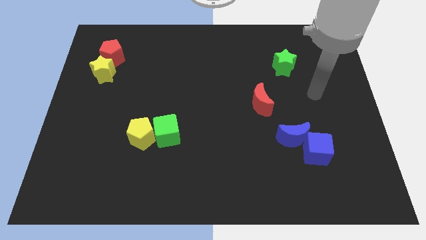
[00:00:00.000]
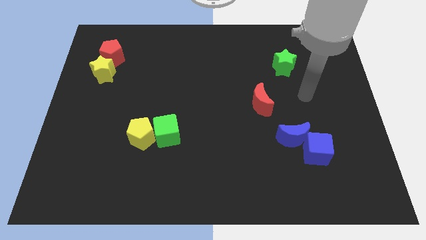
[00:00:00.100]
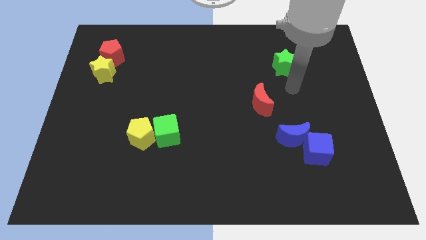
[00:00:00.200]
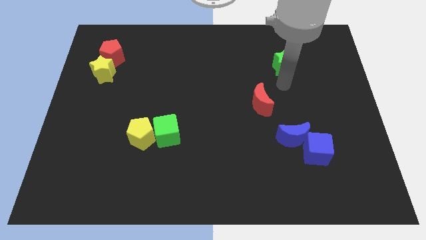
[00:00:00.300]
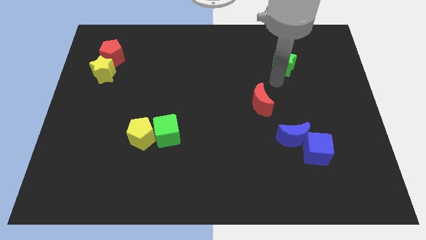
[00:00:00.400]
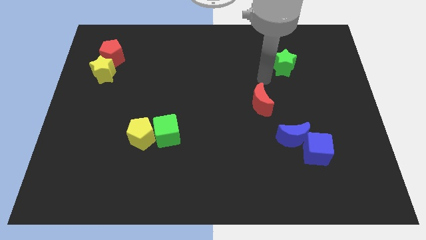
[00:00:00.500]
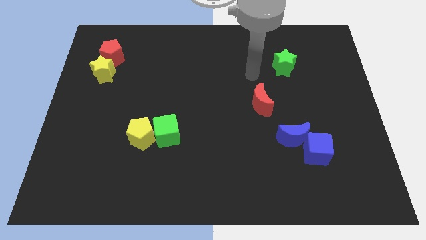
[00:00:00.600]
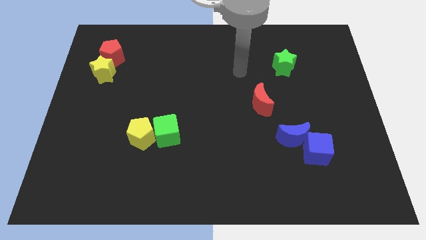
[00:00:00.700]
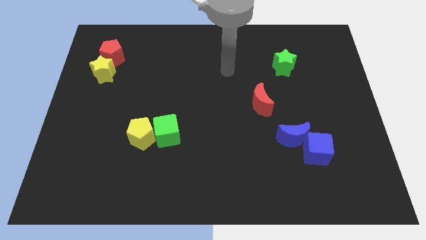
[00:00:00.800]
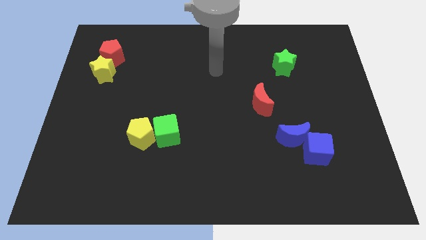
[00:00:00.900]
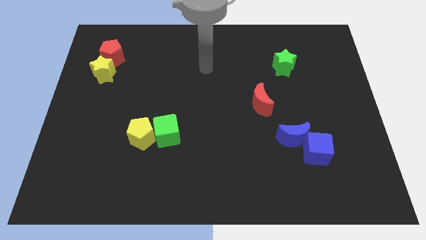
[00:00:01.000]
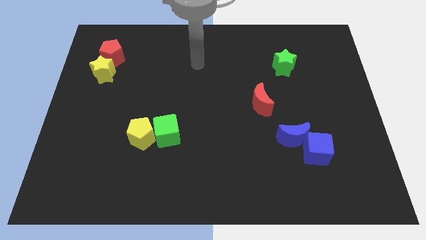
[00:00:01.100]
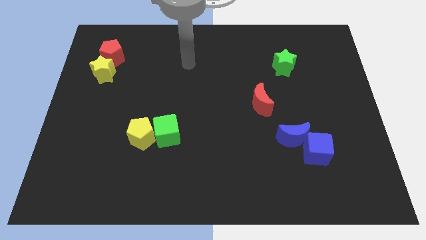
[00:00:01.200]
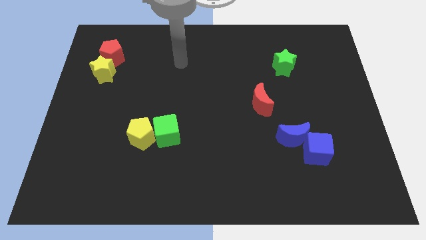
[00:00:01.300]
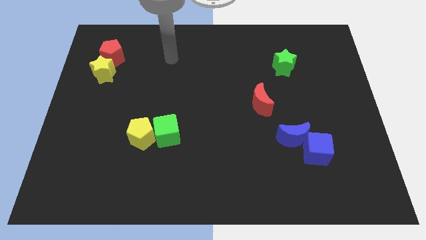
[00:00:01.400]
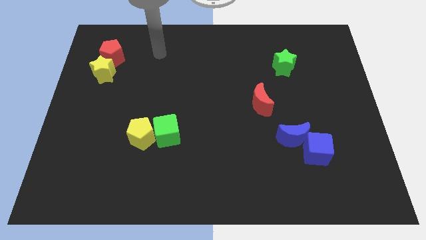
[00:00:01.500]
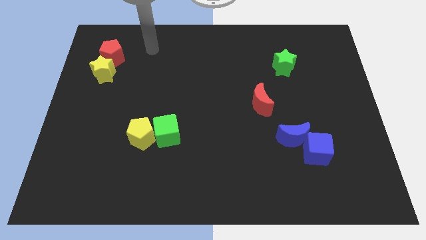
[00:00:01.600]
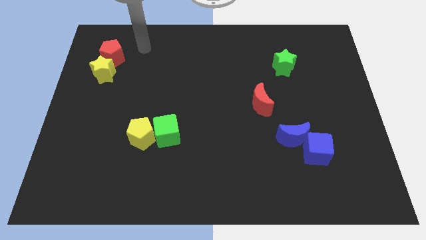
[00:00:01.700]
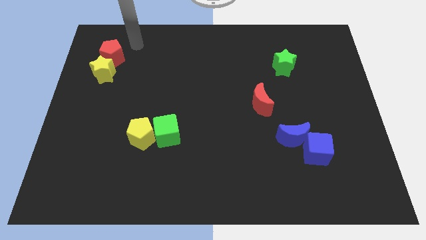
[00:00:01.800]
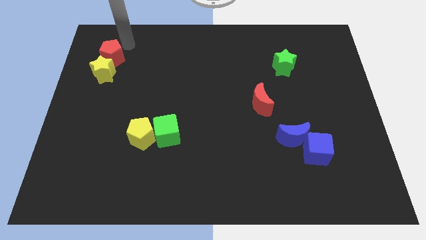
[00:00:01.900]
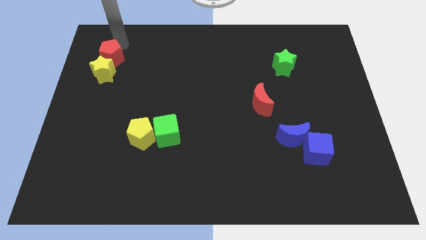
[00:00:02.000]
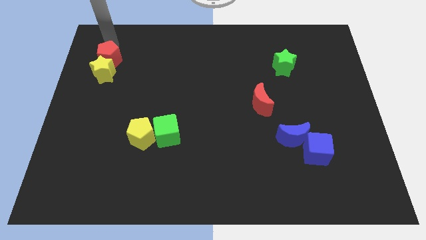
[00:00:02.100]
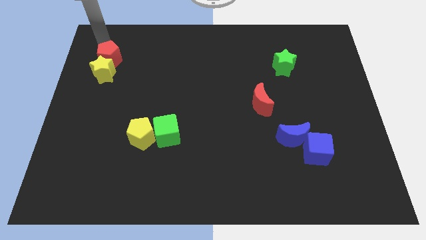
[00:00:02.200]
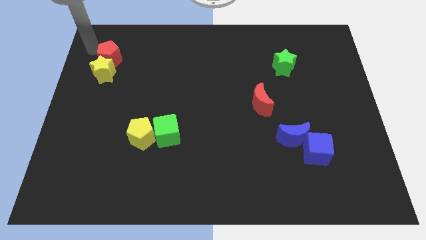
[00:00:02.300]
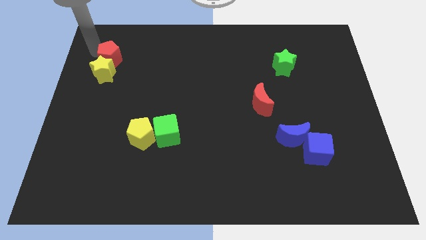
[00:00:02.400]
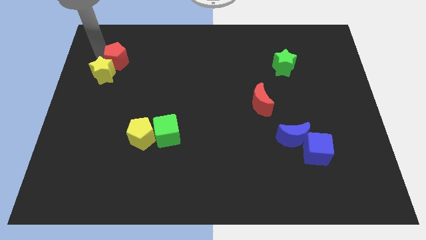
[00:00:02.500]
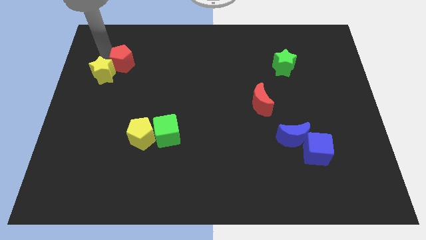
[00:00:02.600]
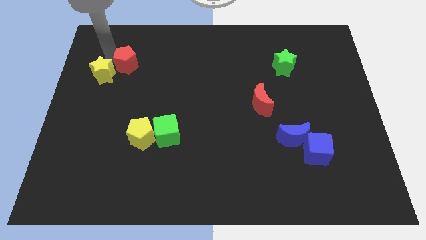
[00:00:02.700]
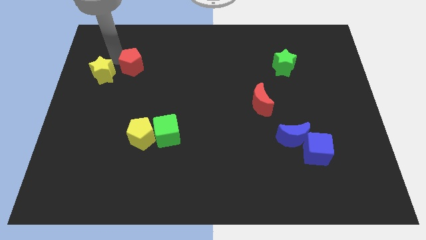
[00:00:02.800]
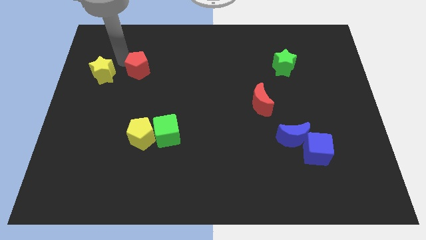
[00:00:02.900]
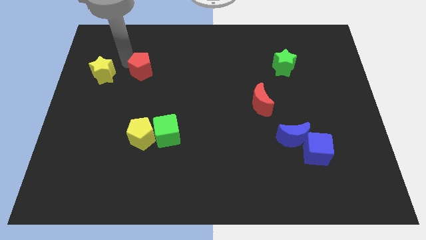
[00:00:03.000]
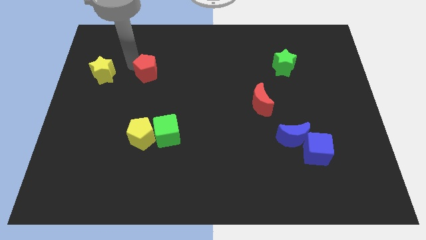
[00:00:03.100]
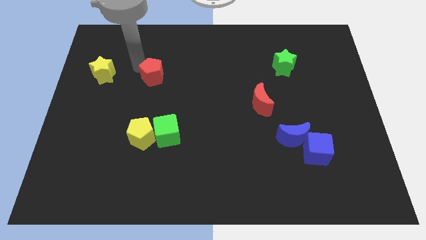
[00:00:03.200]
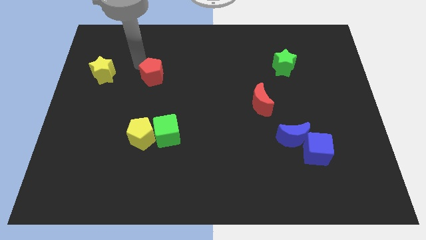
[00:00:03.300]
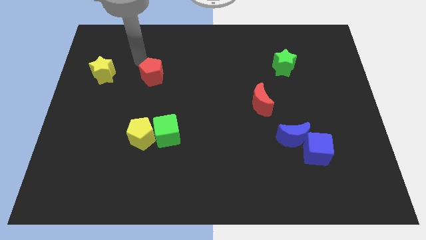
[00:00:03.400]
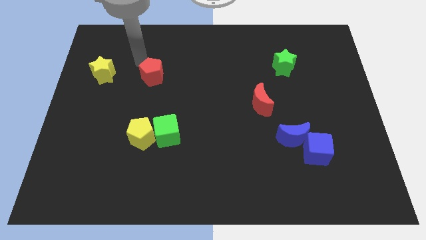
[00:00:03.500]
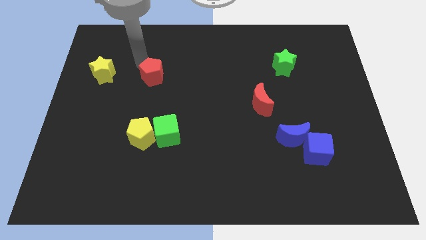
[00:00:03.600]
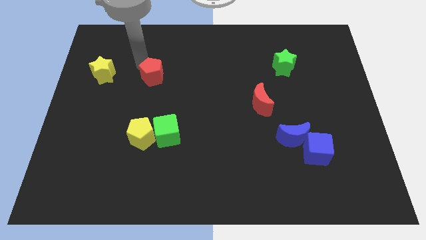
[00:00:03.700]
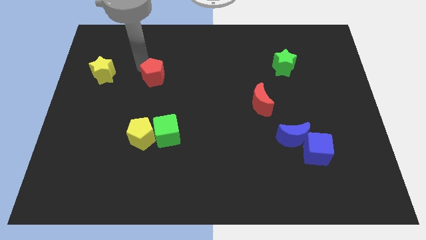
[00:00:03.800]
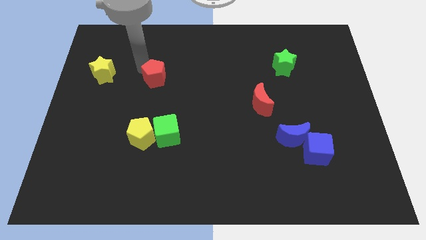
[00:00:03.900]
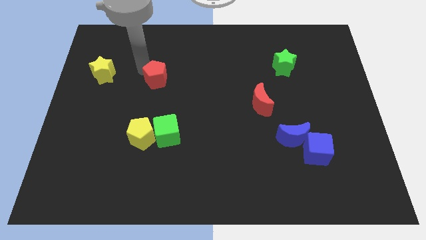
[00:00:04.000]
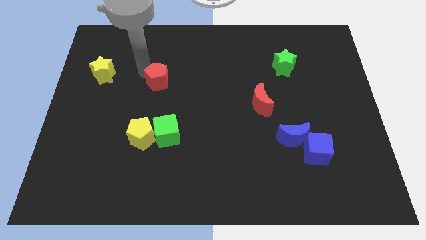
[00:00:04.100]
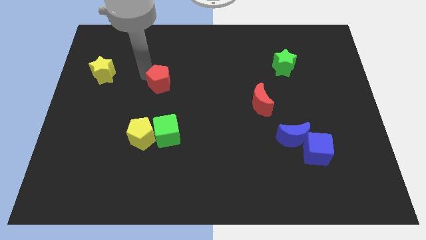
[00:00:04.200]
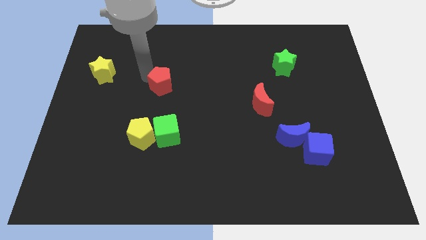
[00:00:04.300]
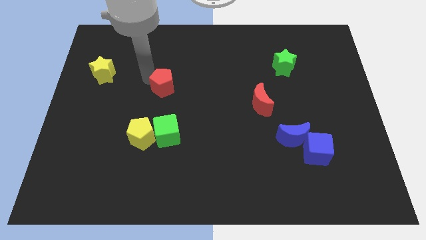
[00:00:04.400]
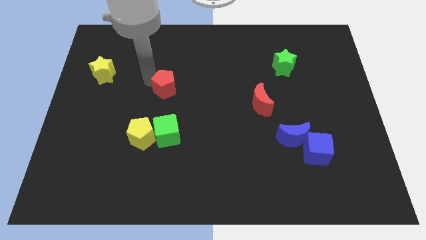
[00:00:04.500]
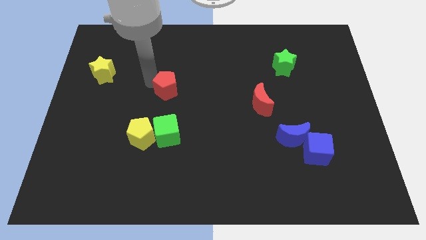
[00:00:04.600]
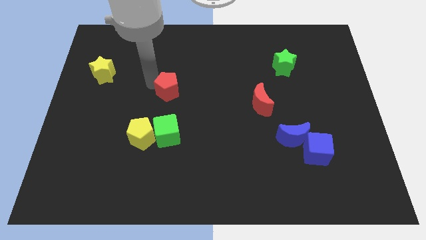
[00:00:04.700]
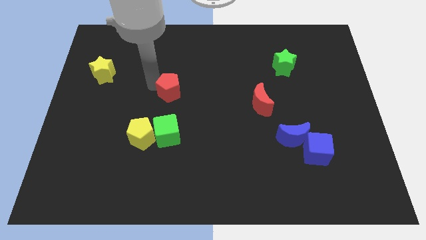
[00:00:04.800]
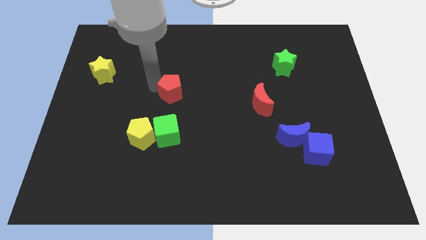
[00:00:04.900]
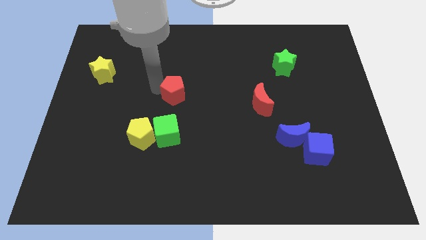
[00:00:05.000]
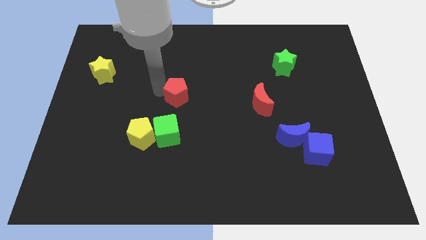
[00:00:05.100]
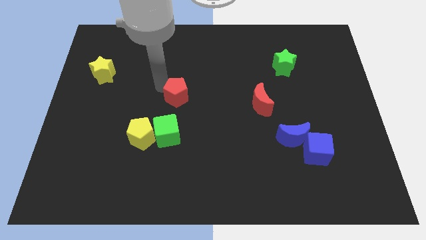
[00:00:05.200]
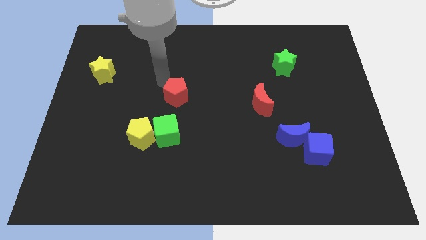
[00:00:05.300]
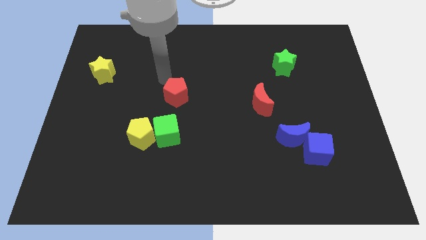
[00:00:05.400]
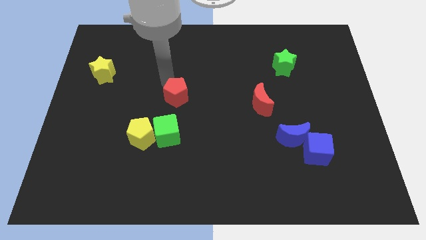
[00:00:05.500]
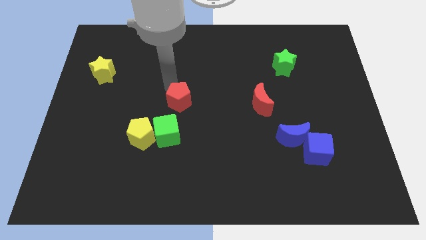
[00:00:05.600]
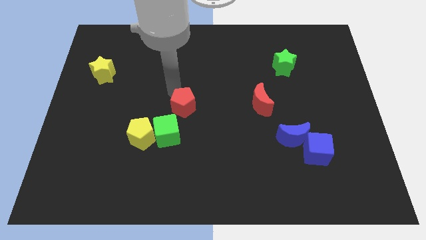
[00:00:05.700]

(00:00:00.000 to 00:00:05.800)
put the red pentagon diagonally up and to the right of the green cube
